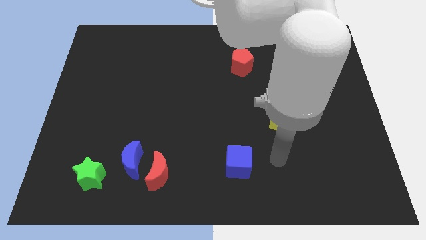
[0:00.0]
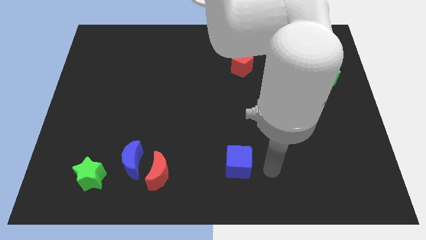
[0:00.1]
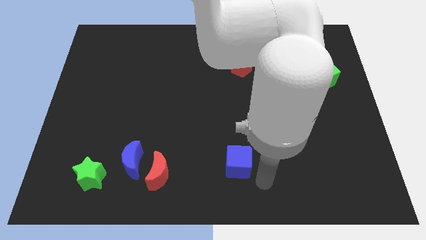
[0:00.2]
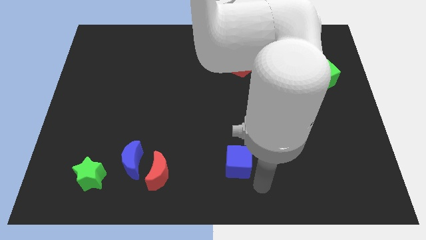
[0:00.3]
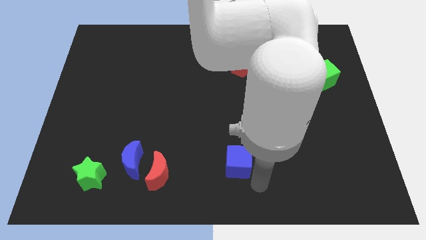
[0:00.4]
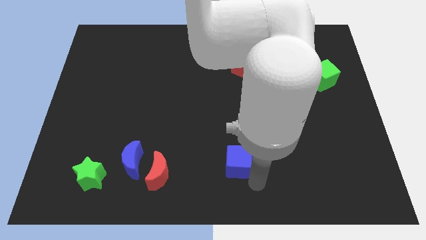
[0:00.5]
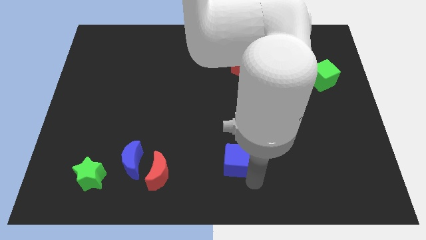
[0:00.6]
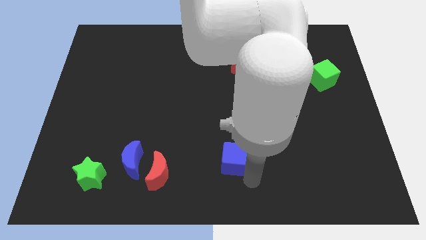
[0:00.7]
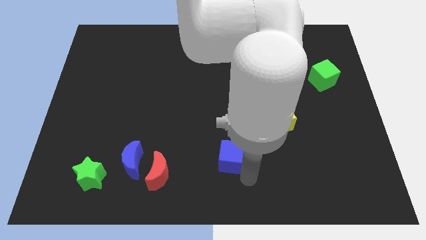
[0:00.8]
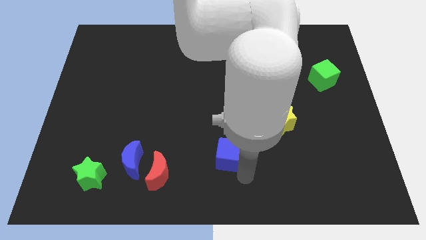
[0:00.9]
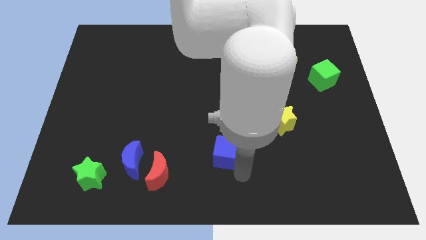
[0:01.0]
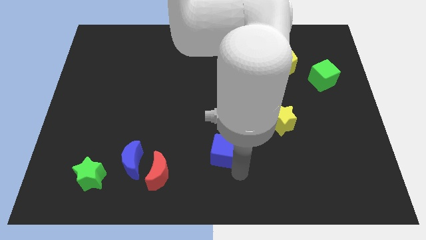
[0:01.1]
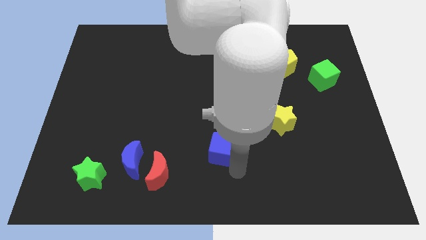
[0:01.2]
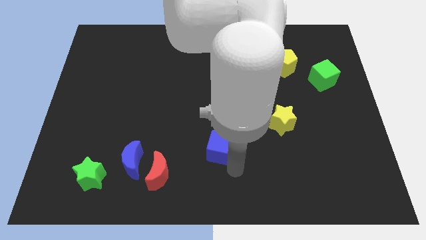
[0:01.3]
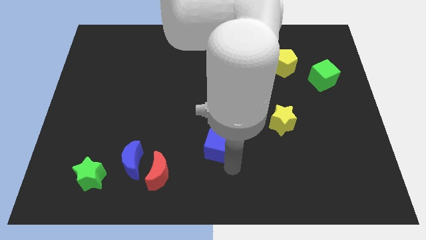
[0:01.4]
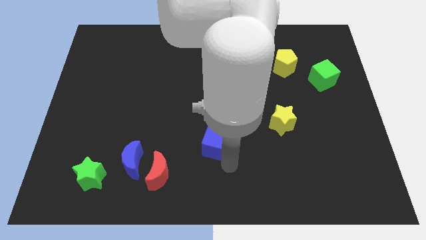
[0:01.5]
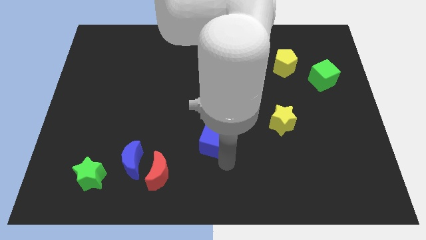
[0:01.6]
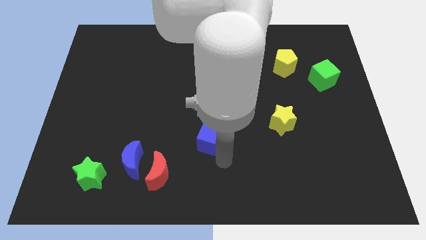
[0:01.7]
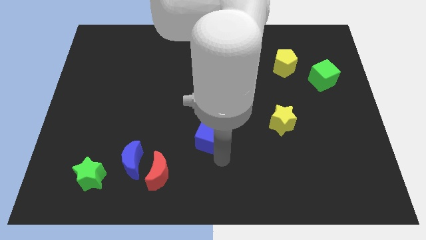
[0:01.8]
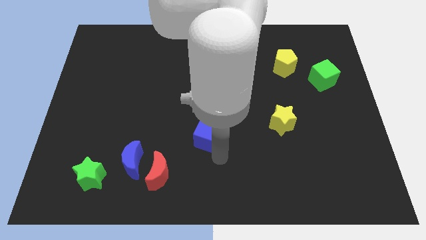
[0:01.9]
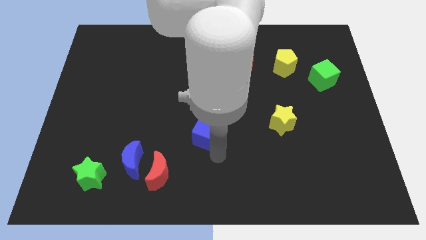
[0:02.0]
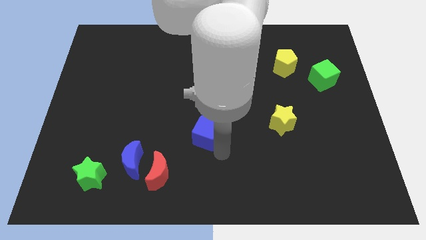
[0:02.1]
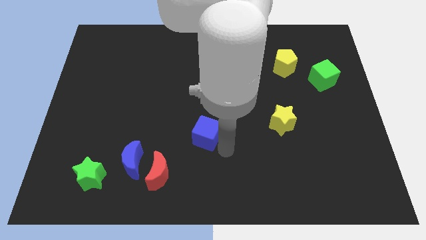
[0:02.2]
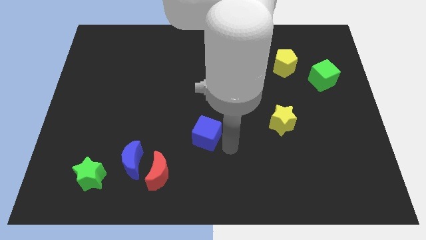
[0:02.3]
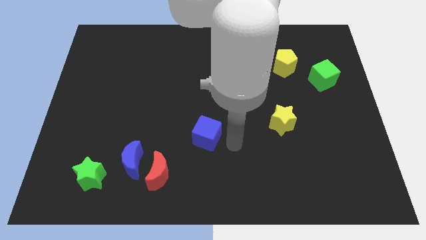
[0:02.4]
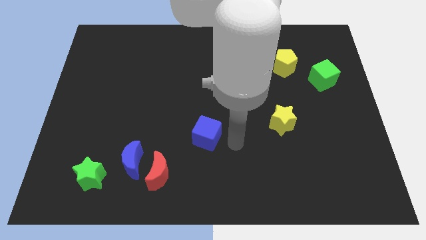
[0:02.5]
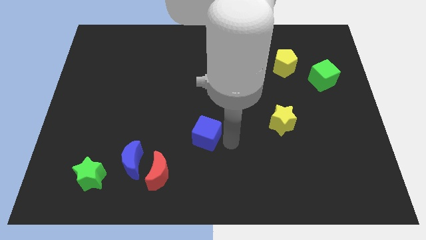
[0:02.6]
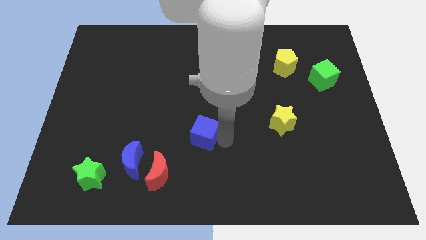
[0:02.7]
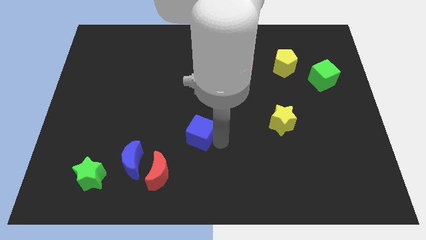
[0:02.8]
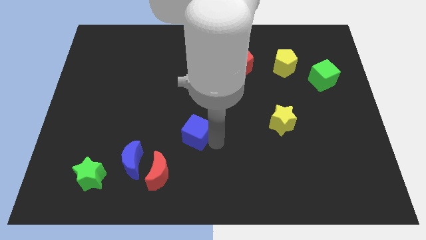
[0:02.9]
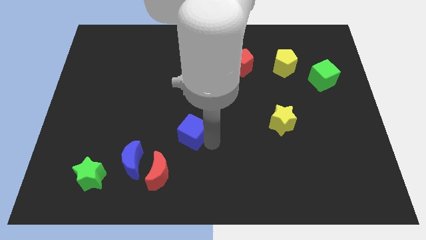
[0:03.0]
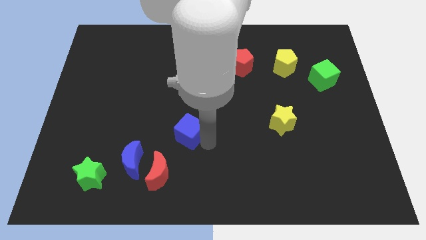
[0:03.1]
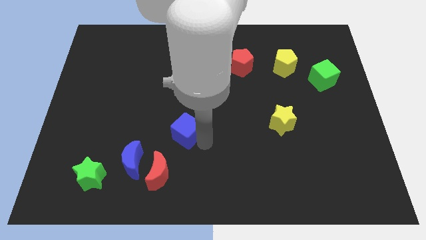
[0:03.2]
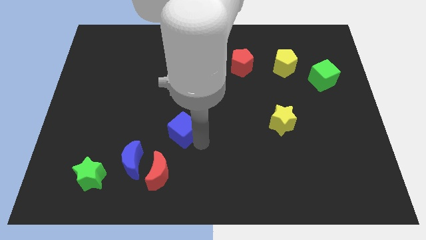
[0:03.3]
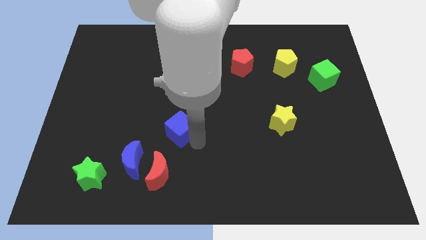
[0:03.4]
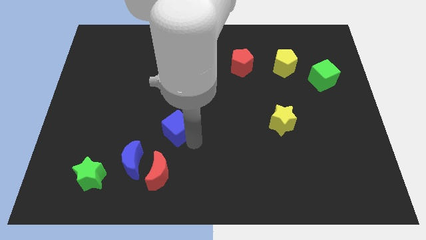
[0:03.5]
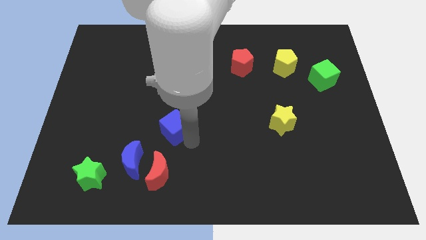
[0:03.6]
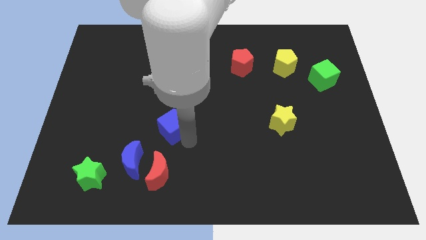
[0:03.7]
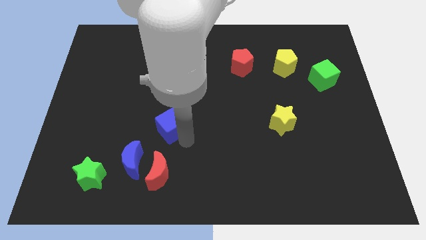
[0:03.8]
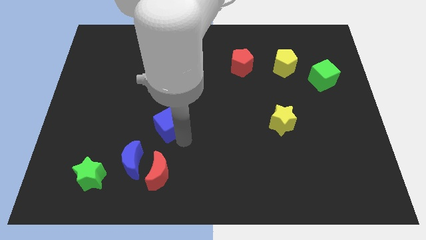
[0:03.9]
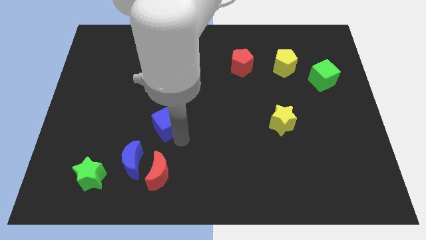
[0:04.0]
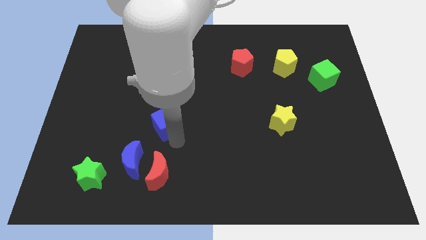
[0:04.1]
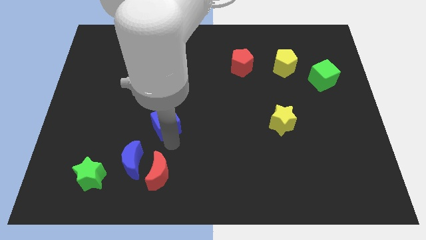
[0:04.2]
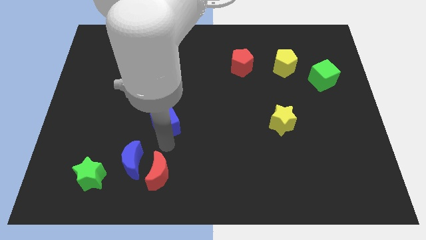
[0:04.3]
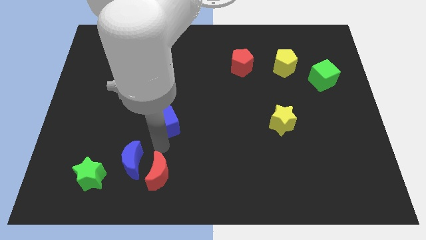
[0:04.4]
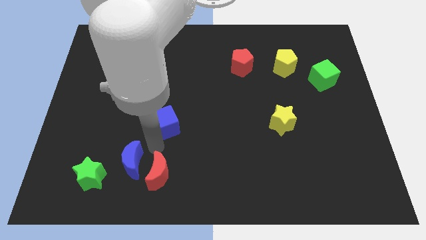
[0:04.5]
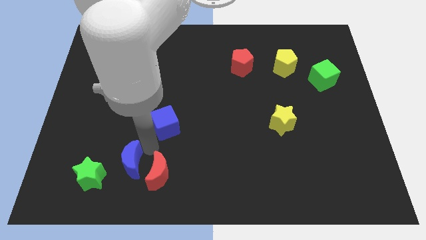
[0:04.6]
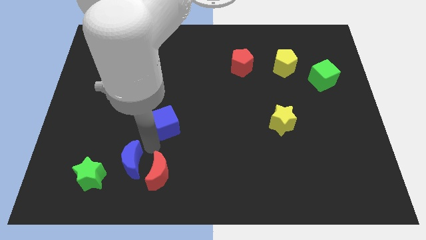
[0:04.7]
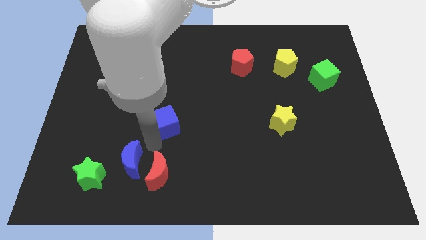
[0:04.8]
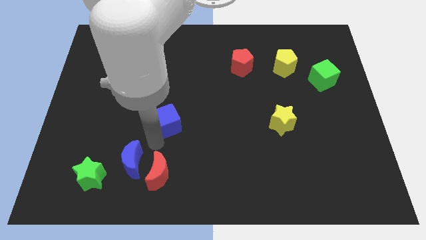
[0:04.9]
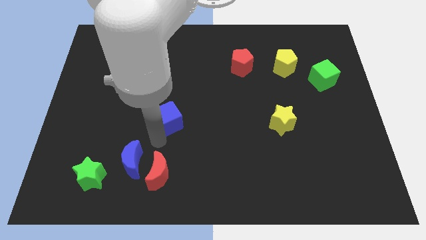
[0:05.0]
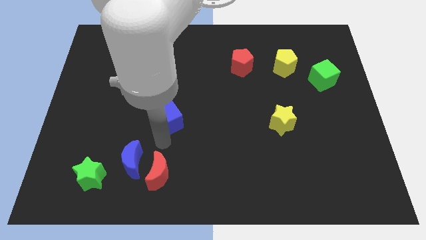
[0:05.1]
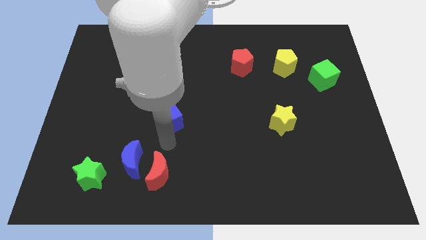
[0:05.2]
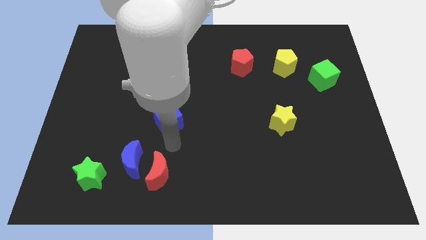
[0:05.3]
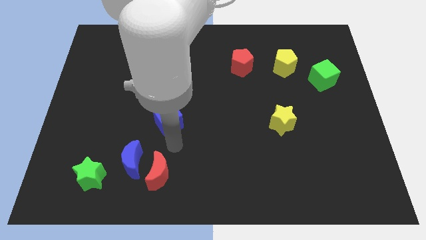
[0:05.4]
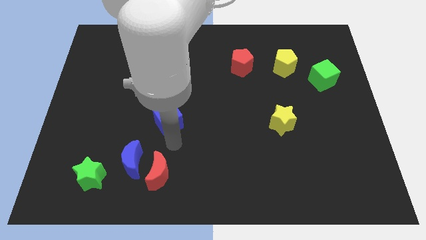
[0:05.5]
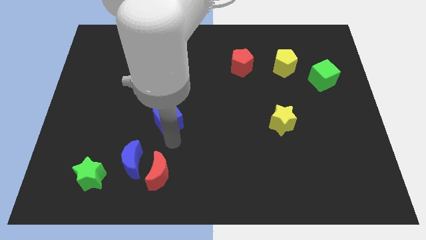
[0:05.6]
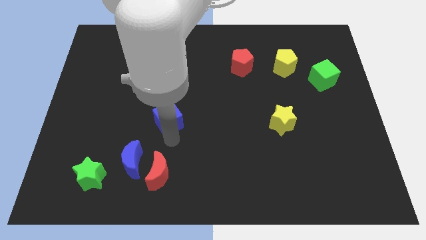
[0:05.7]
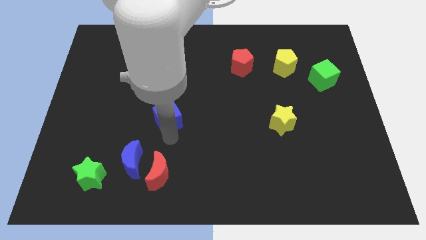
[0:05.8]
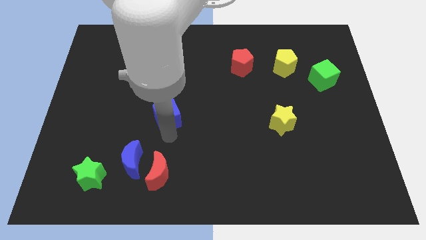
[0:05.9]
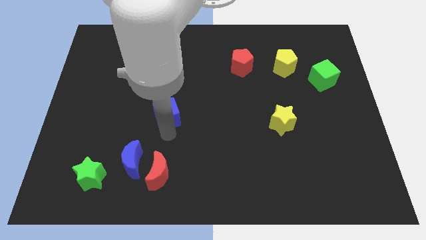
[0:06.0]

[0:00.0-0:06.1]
push the blue cube upwards and left

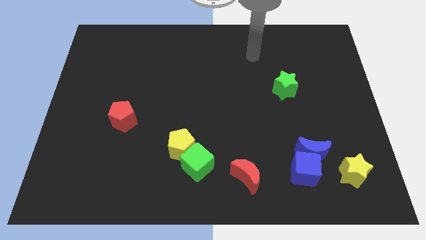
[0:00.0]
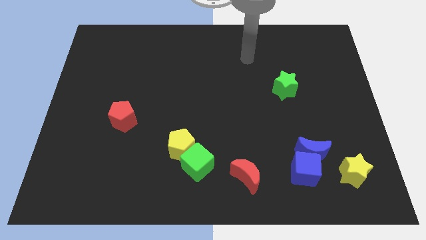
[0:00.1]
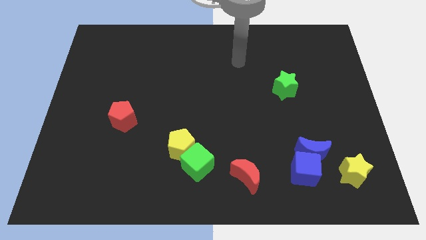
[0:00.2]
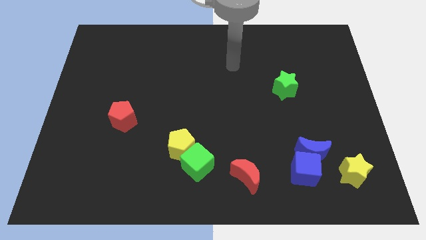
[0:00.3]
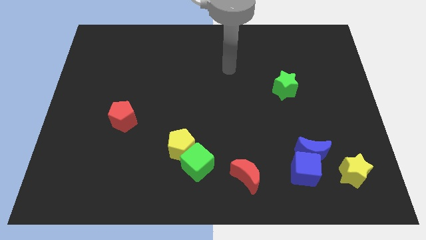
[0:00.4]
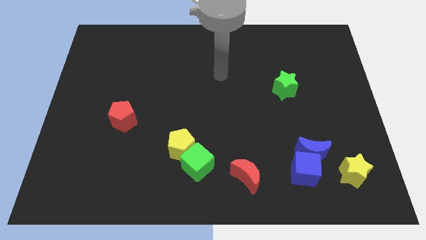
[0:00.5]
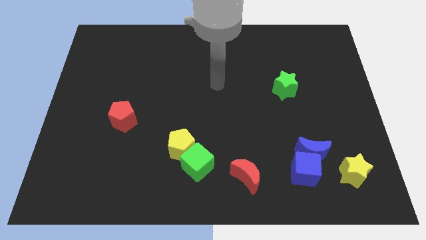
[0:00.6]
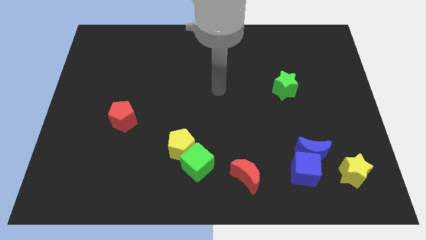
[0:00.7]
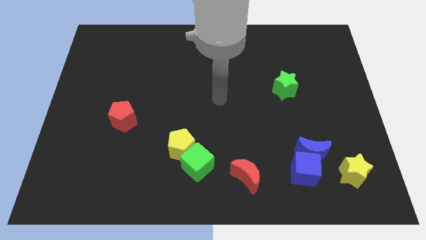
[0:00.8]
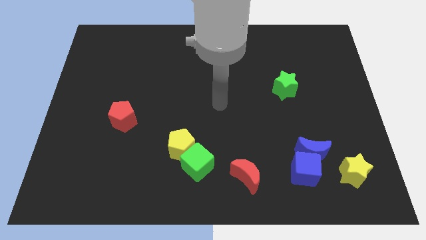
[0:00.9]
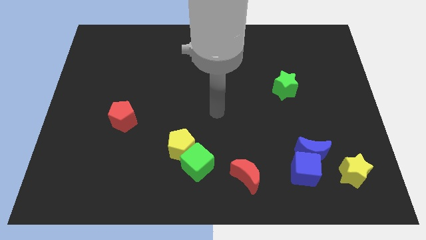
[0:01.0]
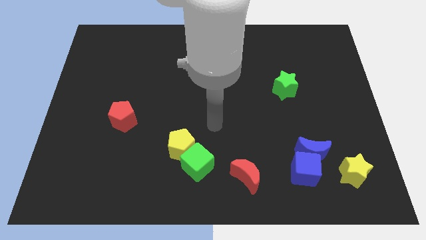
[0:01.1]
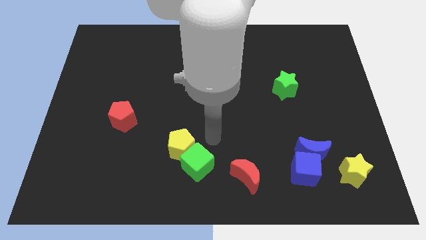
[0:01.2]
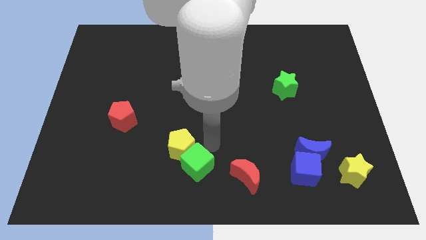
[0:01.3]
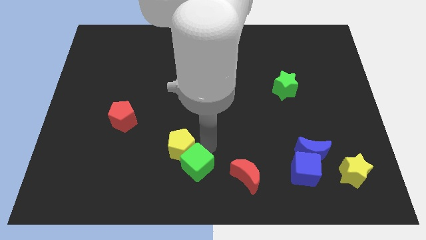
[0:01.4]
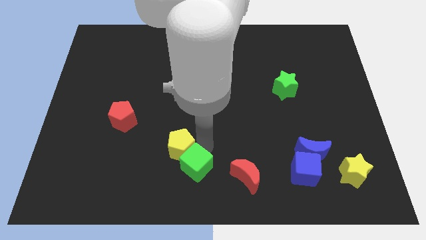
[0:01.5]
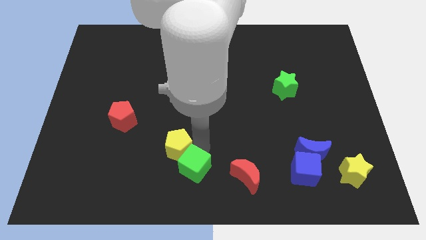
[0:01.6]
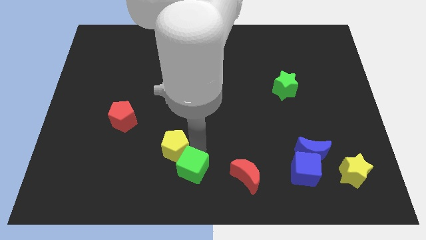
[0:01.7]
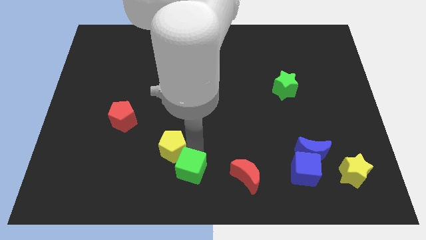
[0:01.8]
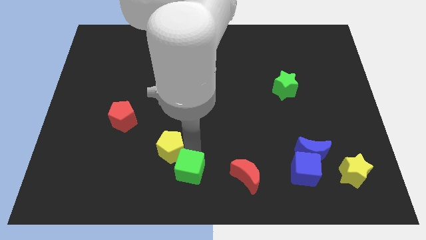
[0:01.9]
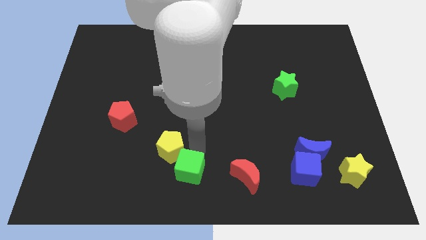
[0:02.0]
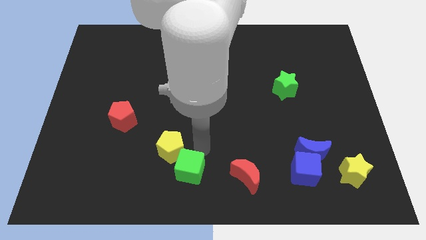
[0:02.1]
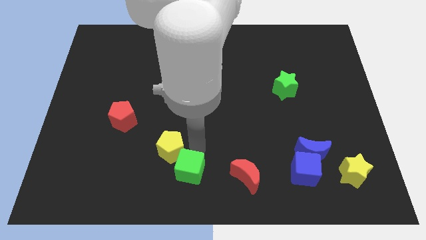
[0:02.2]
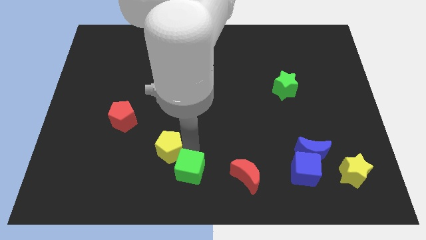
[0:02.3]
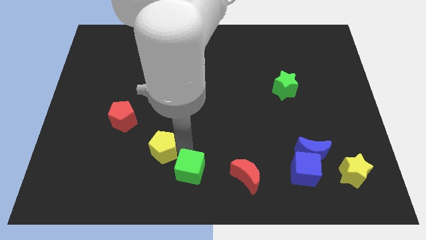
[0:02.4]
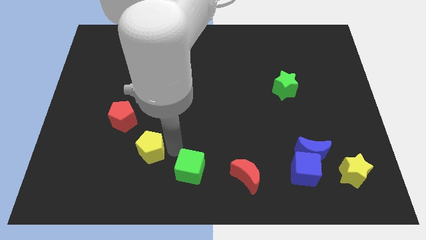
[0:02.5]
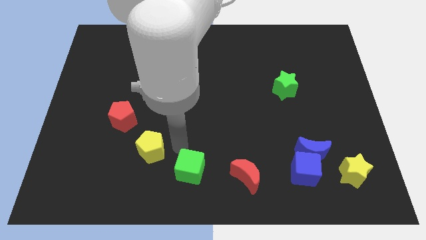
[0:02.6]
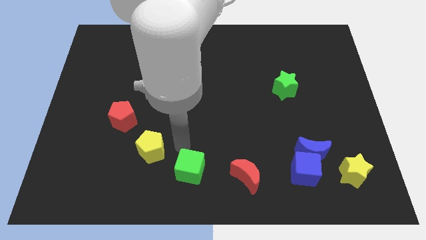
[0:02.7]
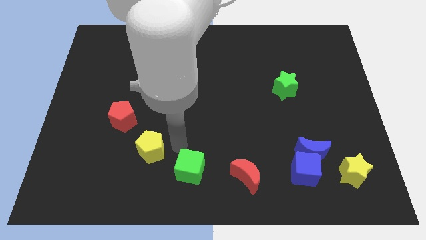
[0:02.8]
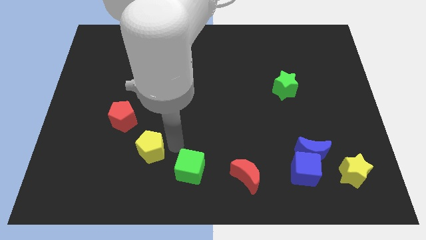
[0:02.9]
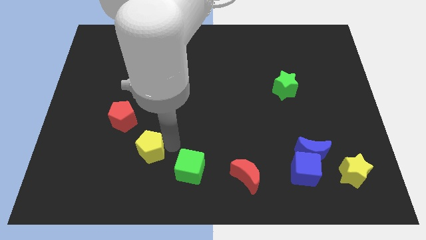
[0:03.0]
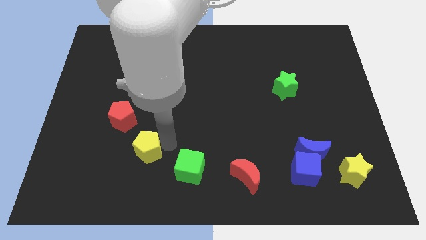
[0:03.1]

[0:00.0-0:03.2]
move the yellow pentagon a bit left
